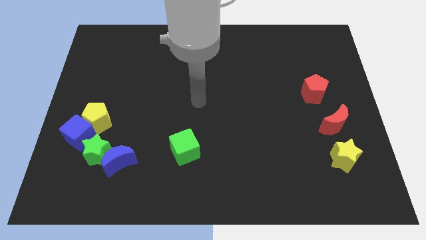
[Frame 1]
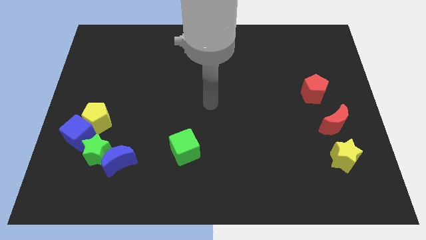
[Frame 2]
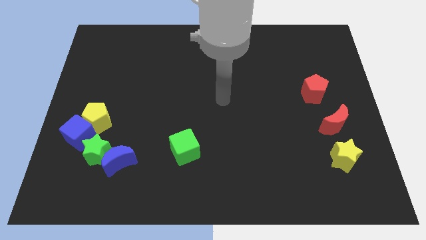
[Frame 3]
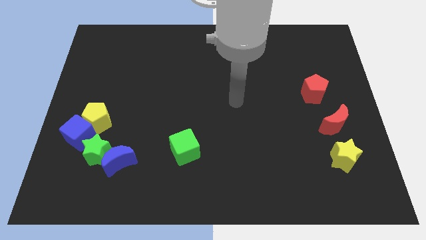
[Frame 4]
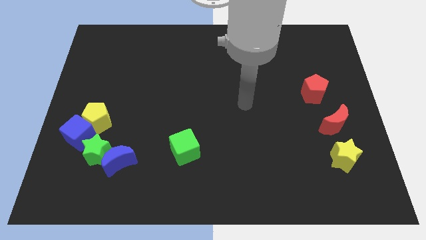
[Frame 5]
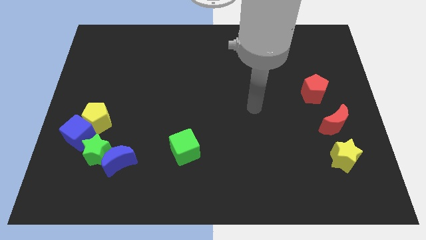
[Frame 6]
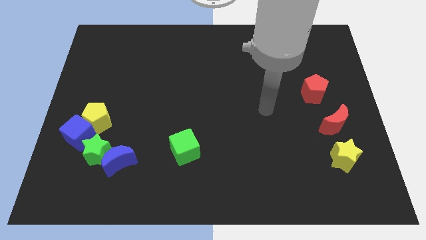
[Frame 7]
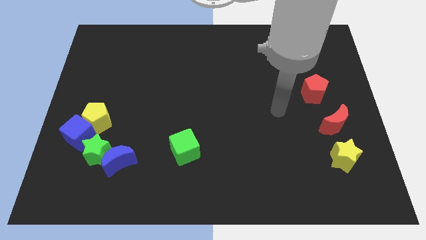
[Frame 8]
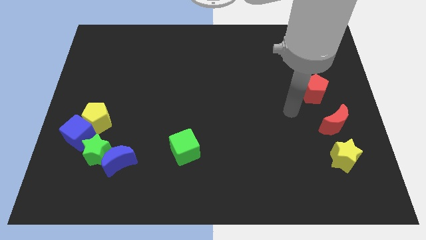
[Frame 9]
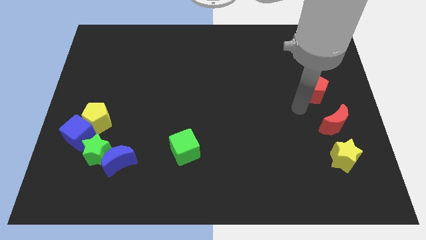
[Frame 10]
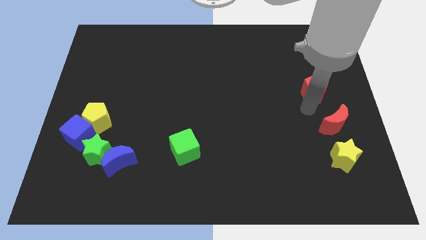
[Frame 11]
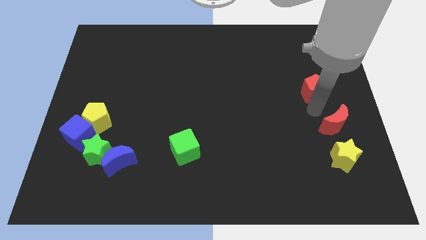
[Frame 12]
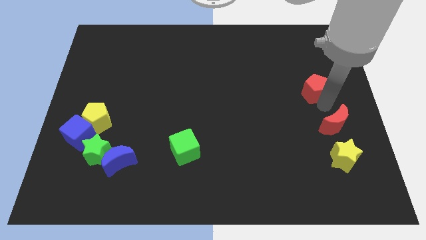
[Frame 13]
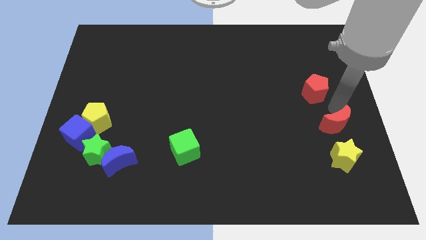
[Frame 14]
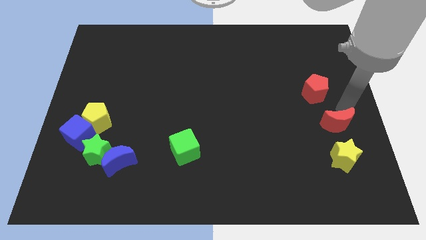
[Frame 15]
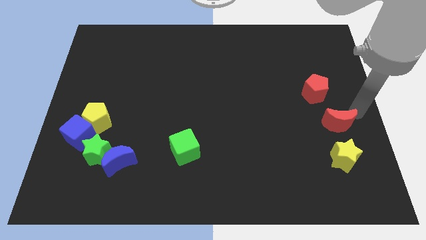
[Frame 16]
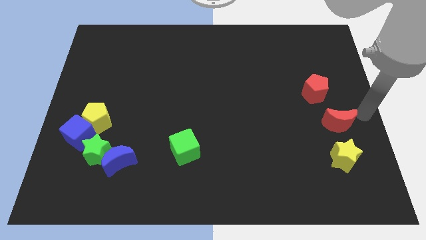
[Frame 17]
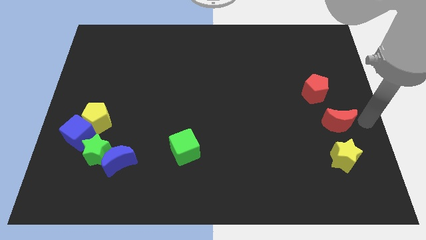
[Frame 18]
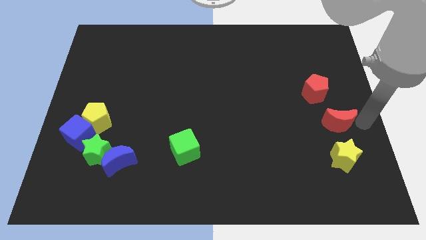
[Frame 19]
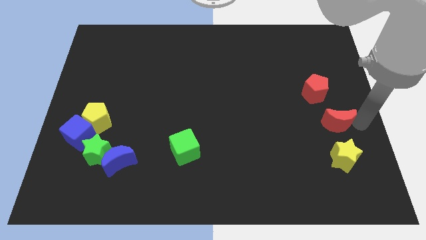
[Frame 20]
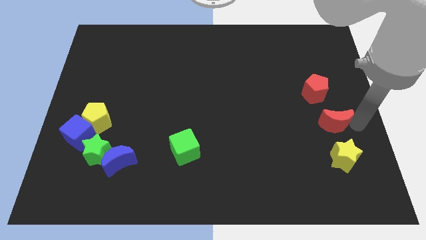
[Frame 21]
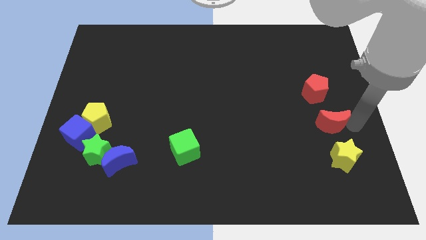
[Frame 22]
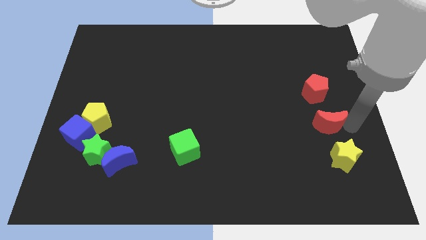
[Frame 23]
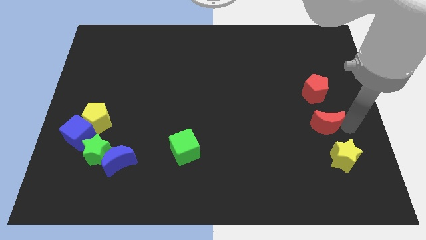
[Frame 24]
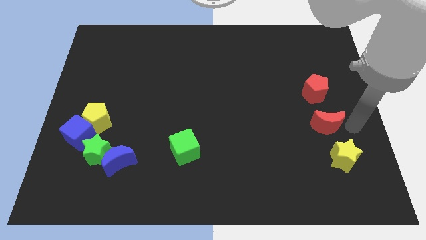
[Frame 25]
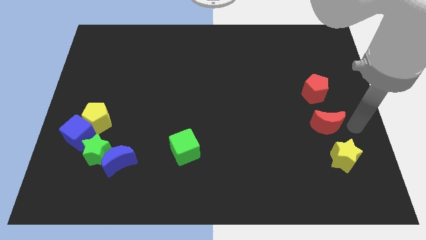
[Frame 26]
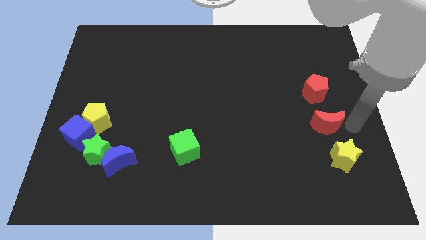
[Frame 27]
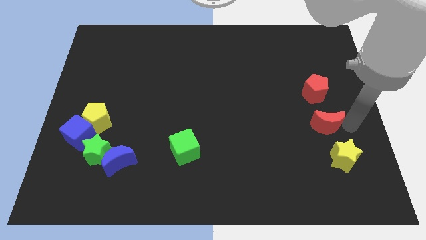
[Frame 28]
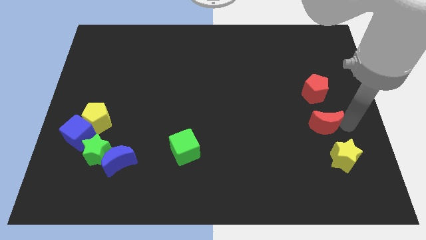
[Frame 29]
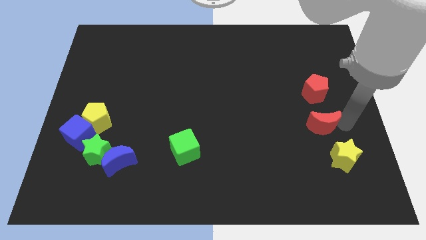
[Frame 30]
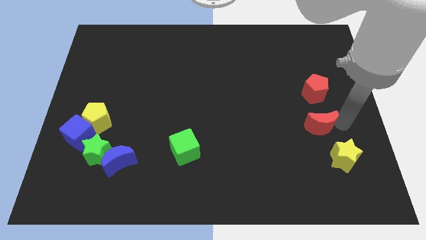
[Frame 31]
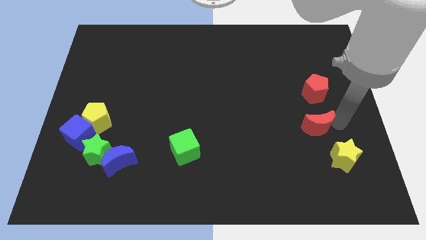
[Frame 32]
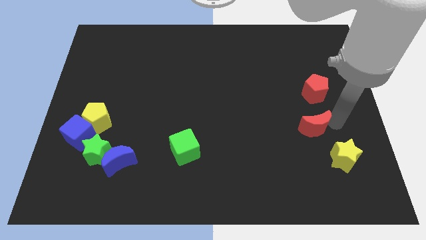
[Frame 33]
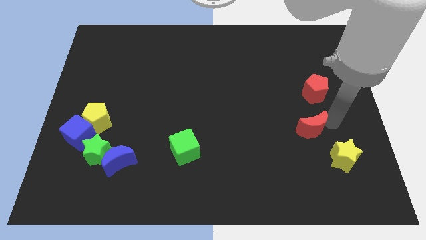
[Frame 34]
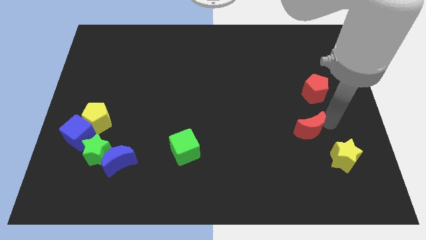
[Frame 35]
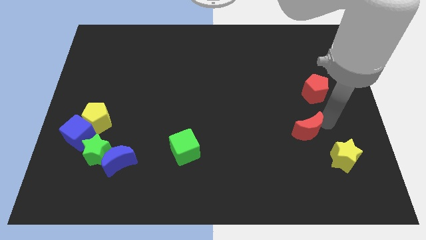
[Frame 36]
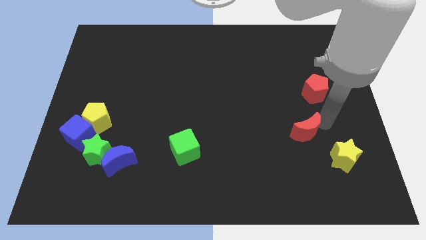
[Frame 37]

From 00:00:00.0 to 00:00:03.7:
slightly slide the red moon to the left

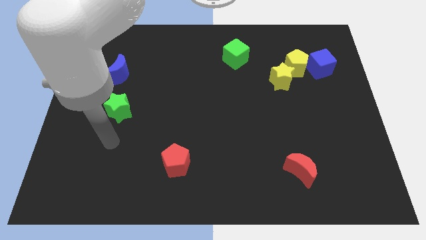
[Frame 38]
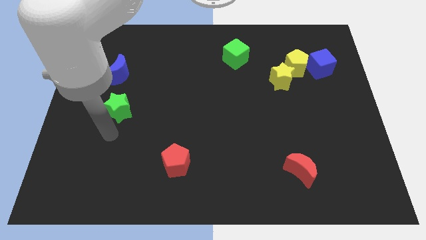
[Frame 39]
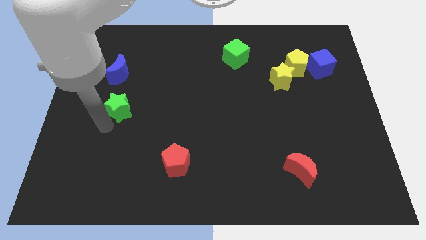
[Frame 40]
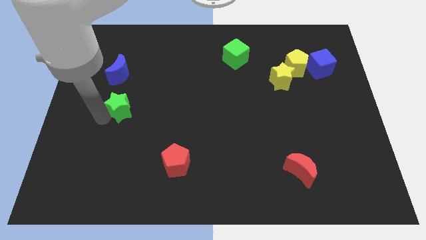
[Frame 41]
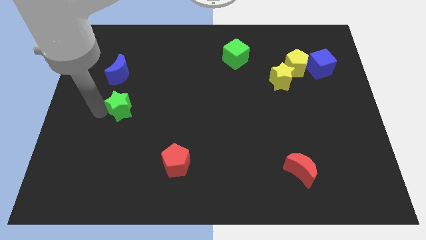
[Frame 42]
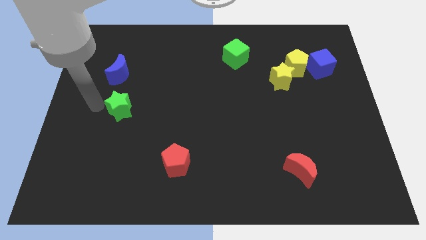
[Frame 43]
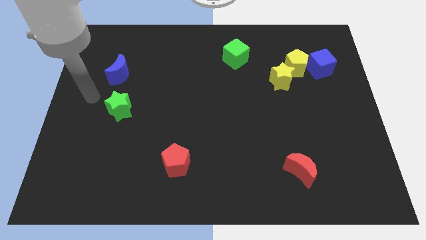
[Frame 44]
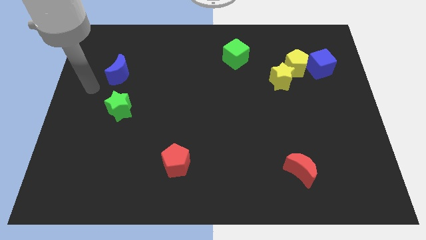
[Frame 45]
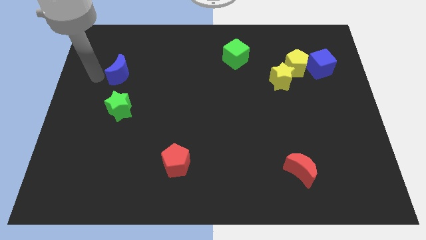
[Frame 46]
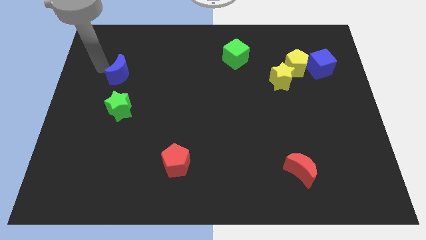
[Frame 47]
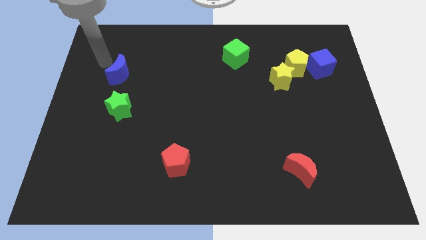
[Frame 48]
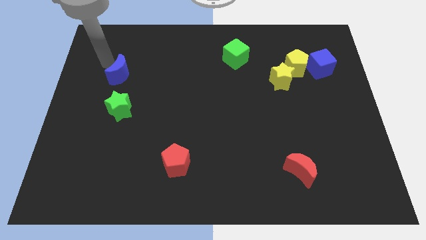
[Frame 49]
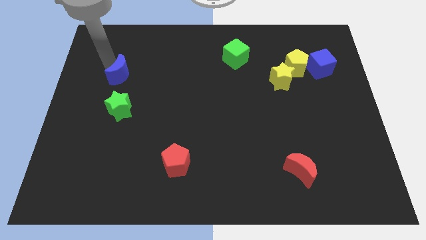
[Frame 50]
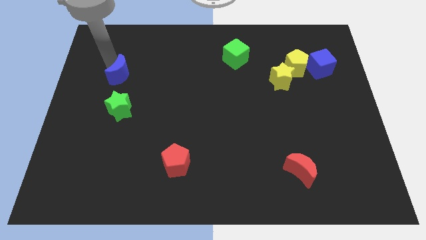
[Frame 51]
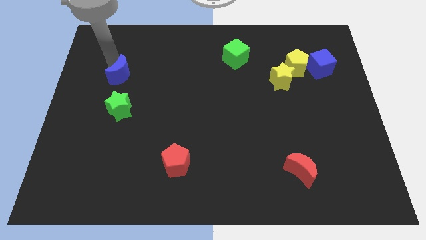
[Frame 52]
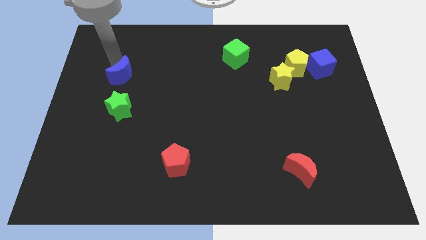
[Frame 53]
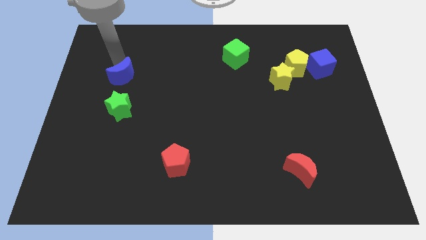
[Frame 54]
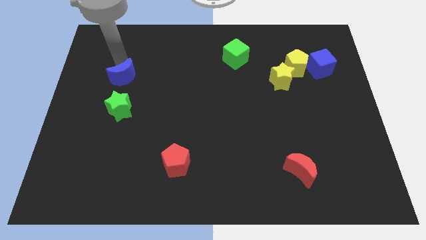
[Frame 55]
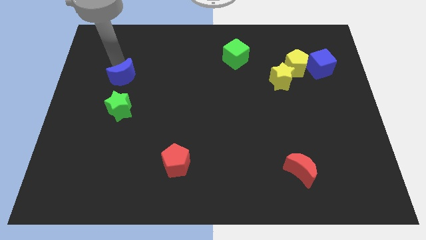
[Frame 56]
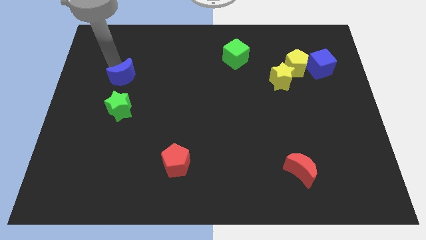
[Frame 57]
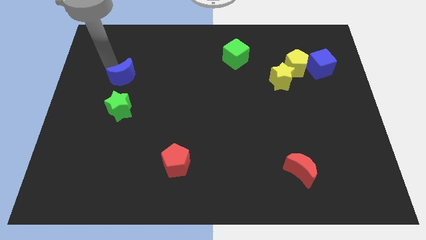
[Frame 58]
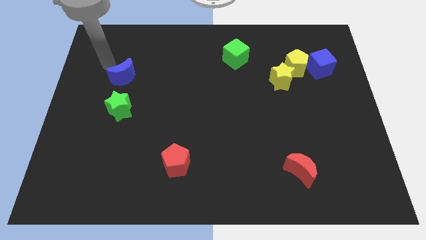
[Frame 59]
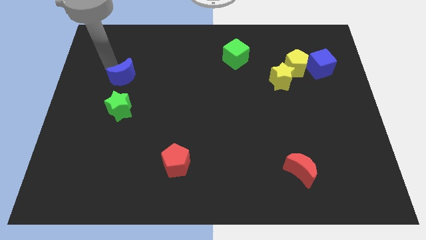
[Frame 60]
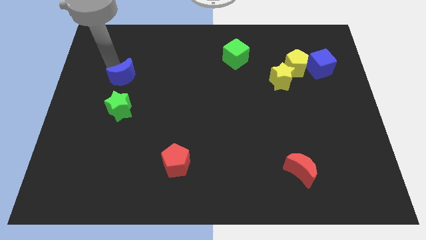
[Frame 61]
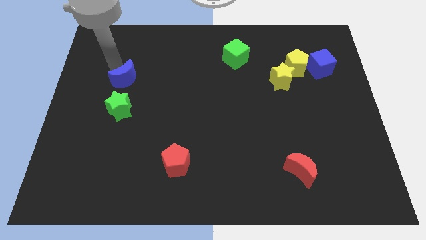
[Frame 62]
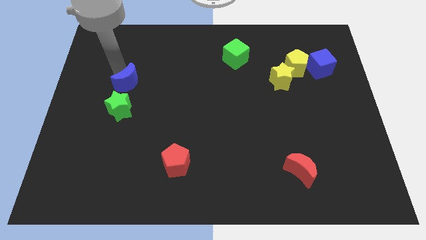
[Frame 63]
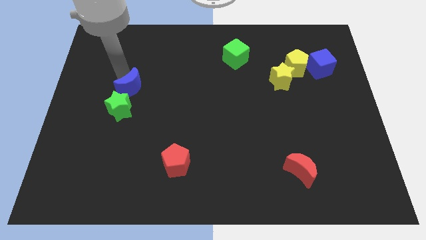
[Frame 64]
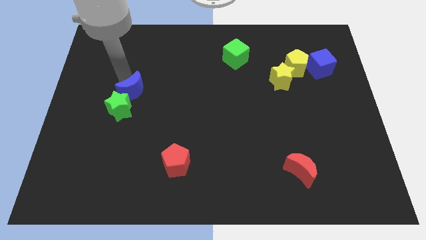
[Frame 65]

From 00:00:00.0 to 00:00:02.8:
push the blue moon a bit diagonally down and to the right

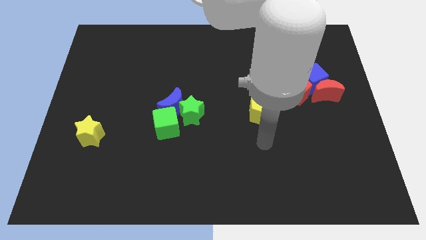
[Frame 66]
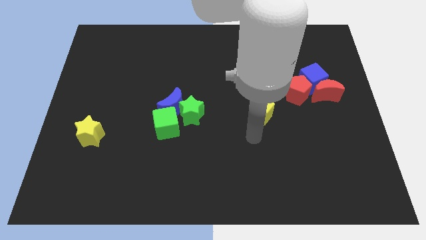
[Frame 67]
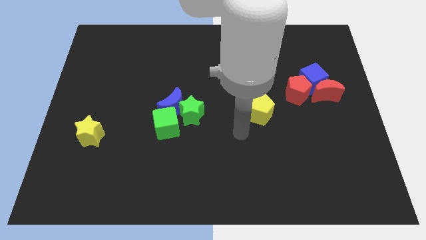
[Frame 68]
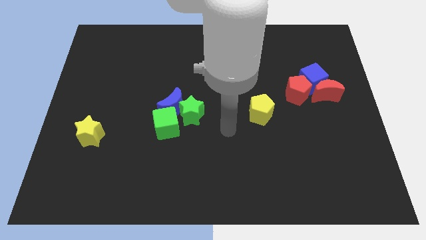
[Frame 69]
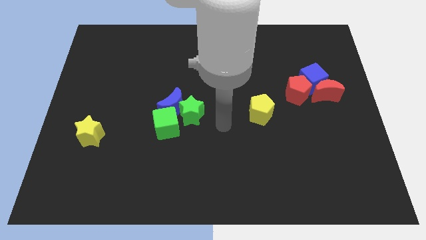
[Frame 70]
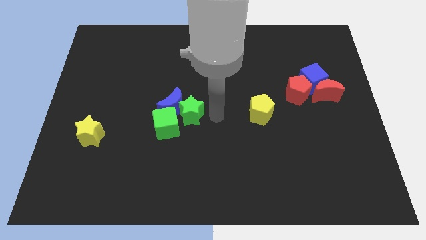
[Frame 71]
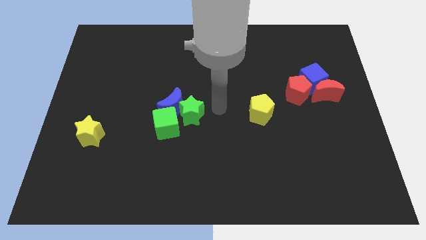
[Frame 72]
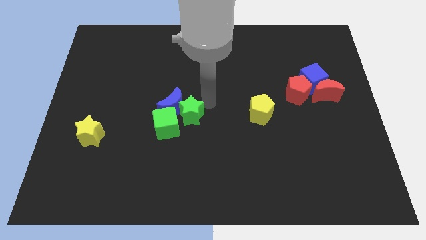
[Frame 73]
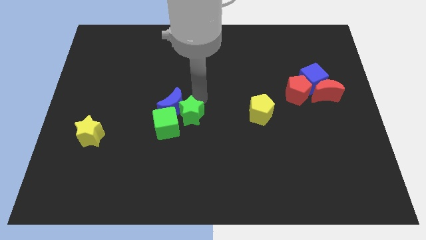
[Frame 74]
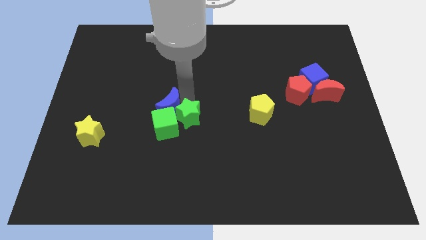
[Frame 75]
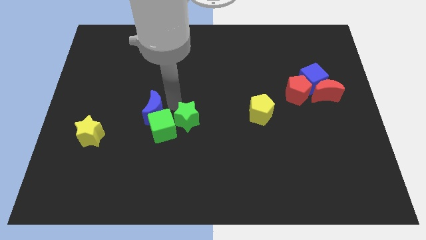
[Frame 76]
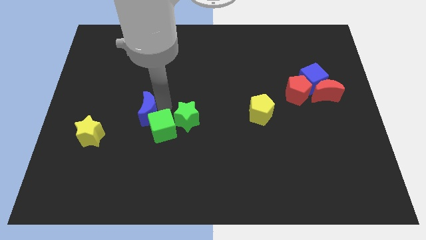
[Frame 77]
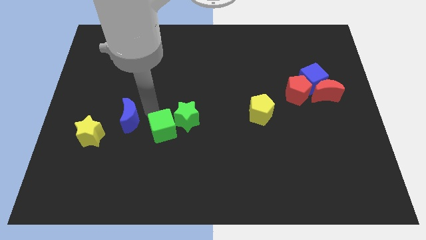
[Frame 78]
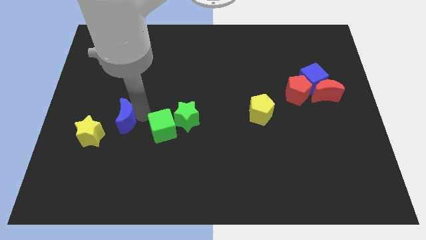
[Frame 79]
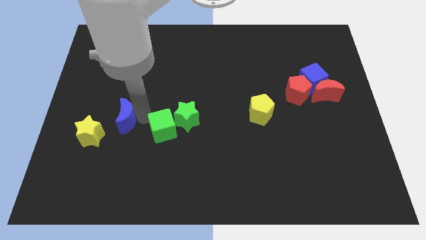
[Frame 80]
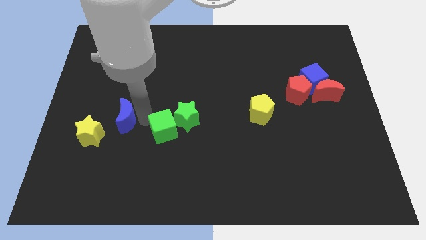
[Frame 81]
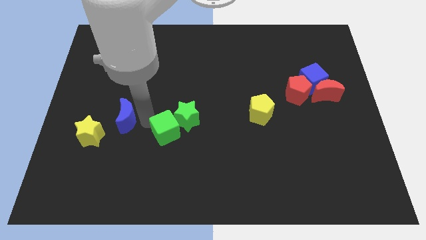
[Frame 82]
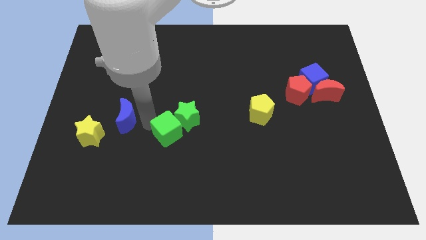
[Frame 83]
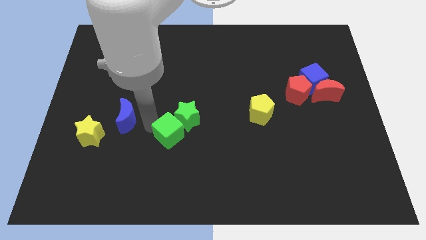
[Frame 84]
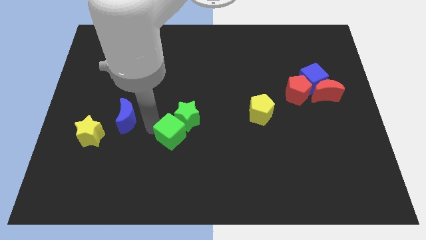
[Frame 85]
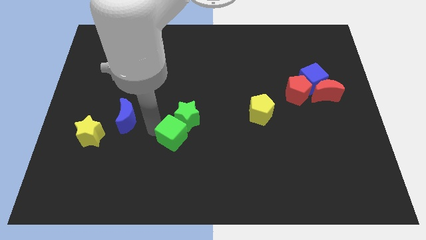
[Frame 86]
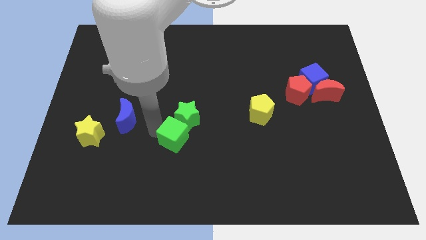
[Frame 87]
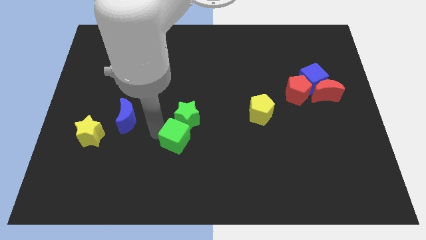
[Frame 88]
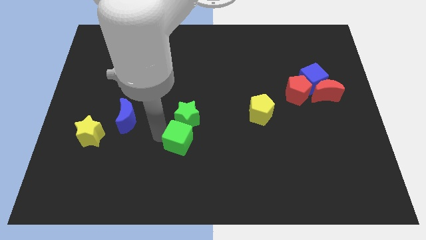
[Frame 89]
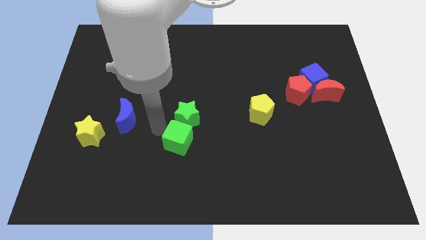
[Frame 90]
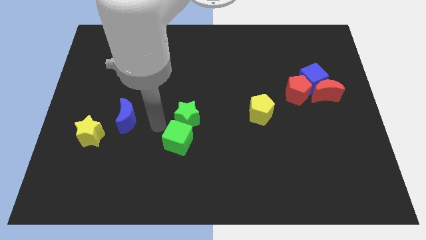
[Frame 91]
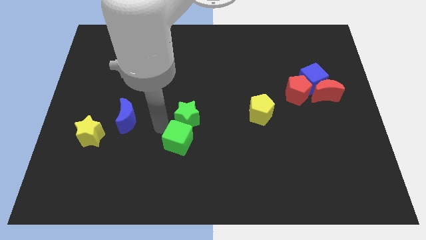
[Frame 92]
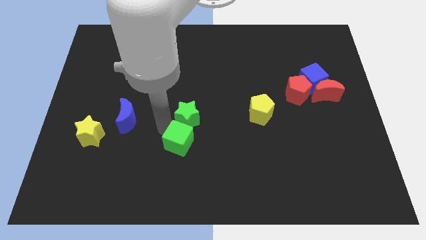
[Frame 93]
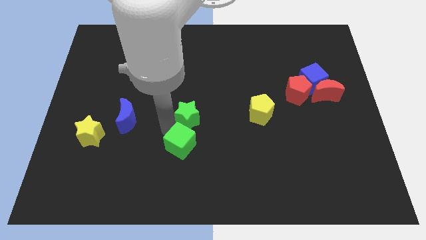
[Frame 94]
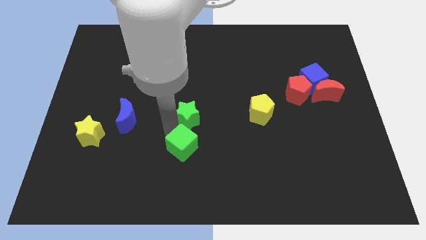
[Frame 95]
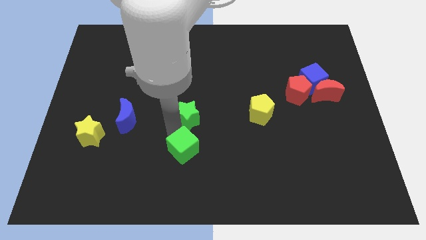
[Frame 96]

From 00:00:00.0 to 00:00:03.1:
slide the green cube somewhat diagonally down and right
